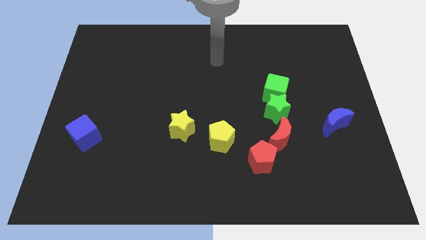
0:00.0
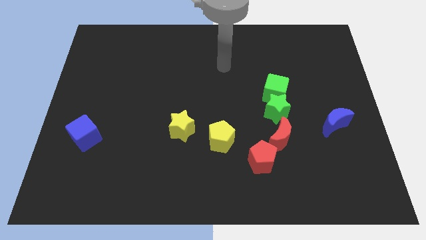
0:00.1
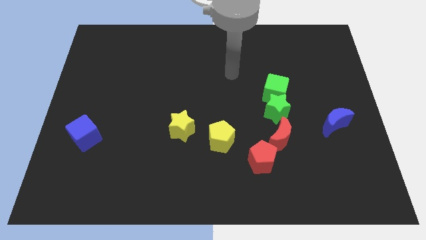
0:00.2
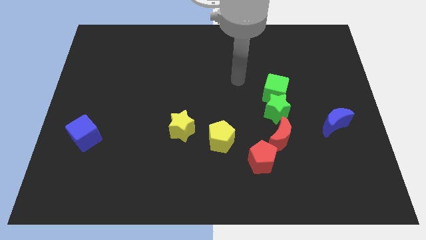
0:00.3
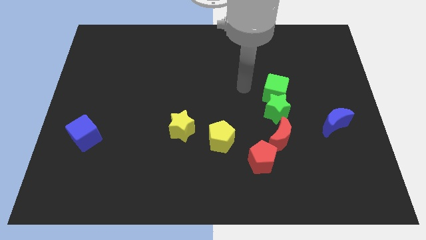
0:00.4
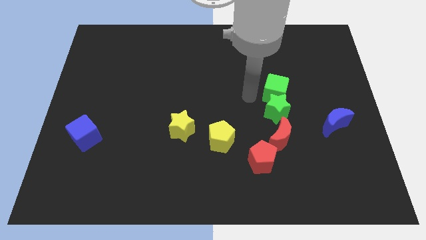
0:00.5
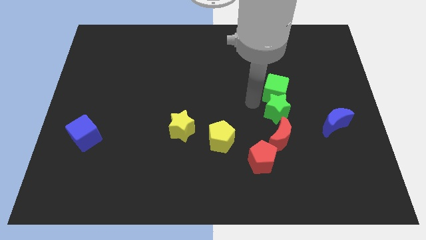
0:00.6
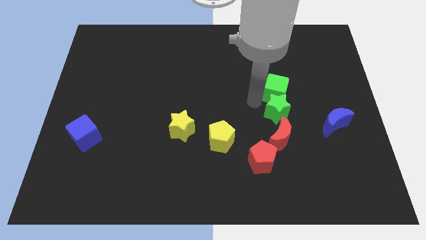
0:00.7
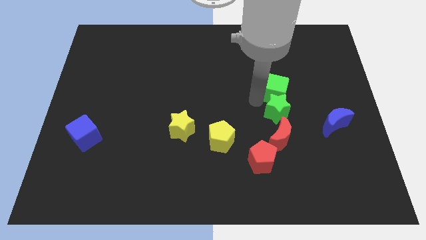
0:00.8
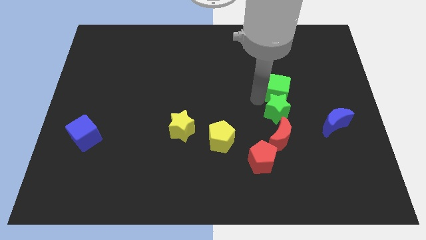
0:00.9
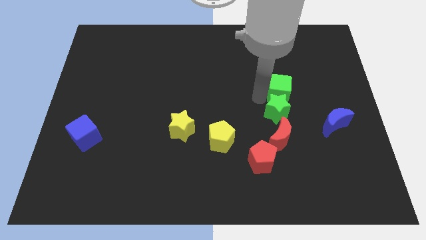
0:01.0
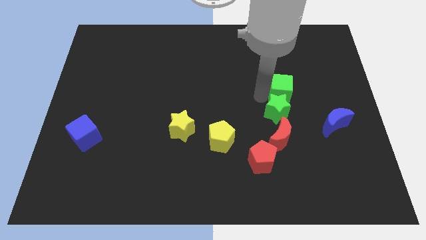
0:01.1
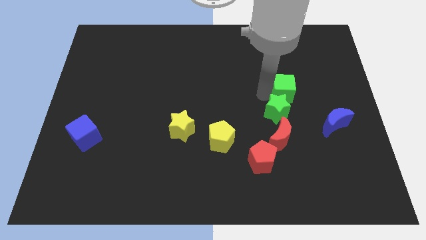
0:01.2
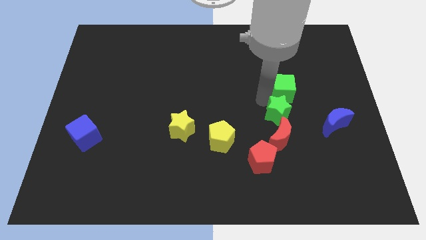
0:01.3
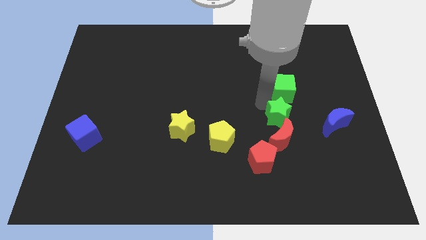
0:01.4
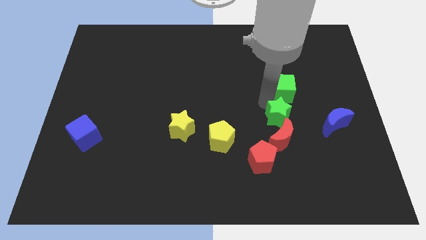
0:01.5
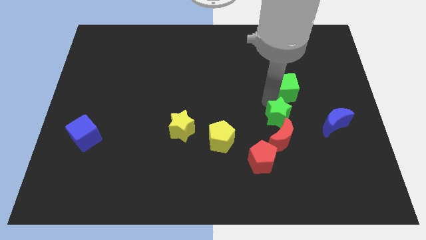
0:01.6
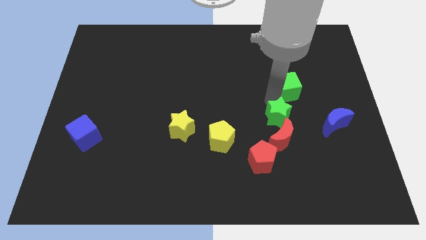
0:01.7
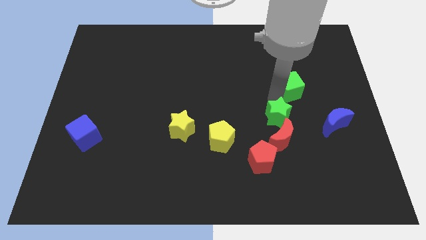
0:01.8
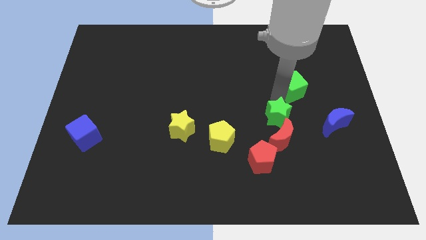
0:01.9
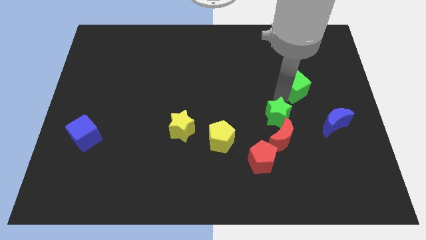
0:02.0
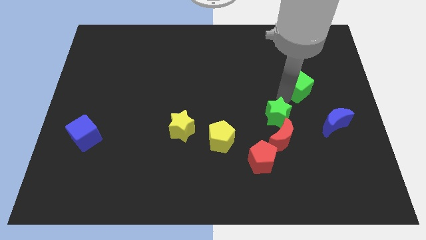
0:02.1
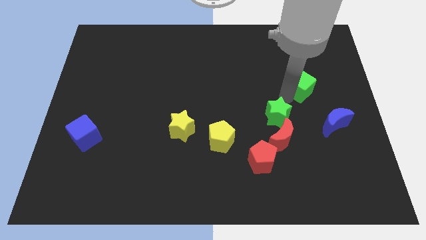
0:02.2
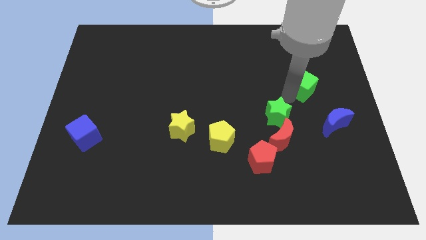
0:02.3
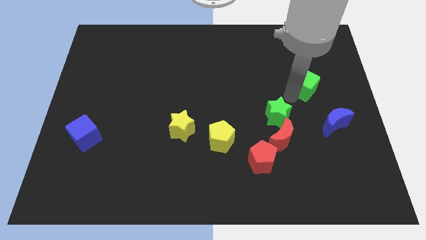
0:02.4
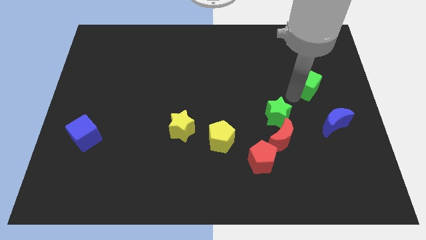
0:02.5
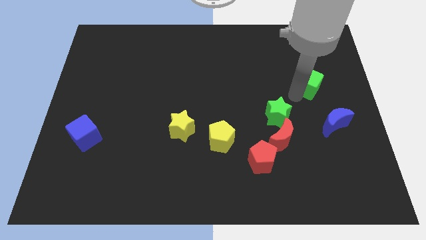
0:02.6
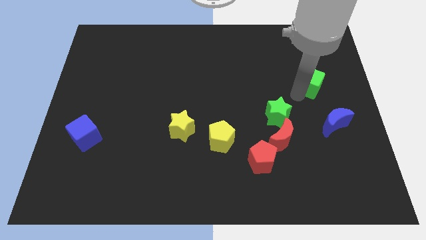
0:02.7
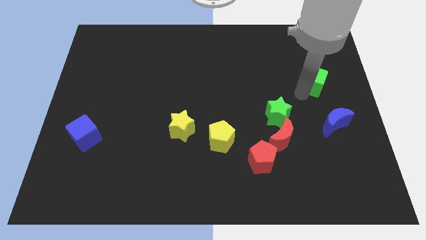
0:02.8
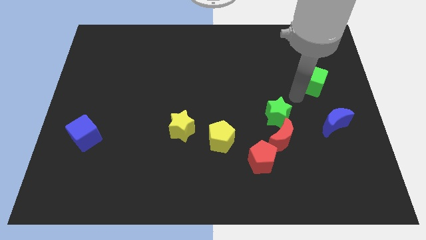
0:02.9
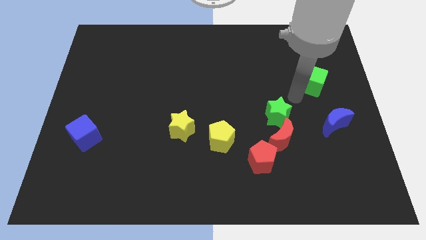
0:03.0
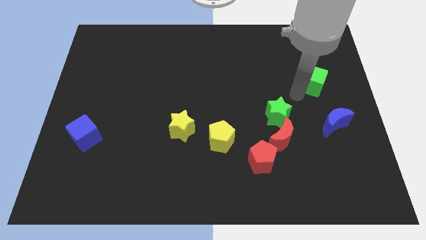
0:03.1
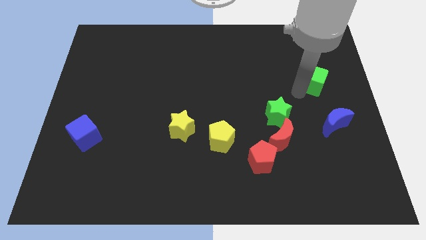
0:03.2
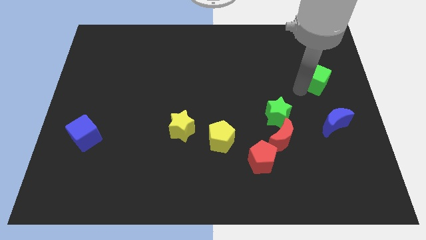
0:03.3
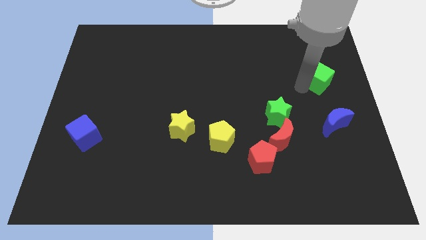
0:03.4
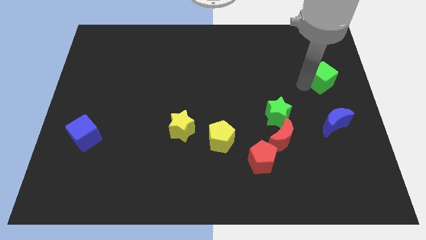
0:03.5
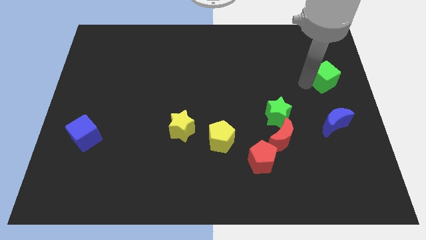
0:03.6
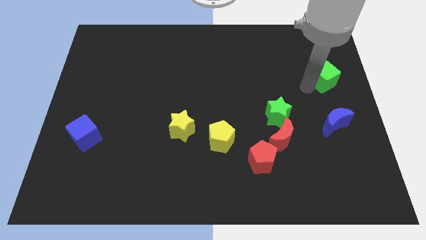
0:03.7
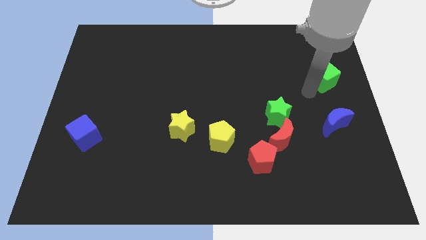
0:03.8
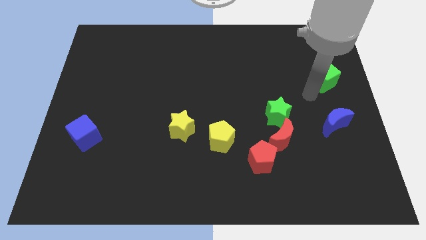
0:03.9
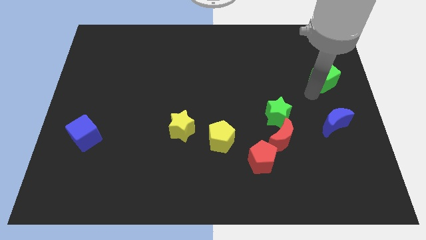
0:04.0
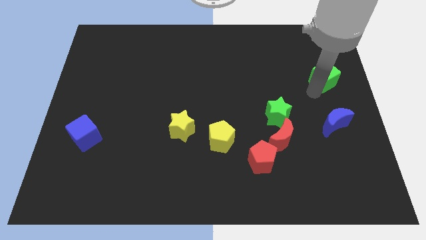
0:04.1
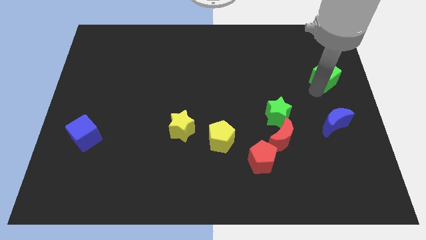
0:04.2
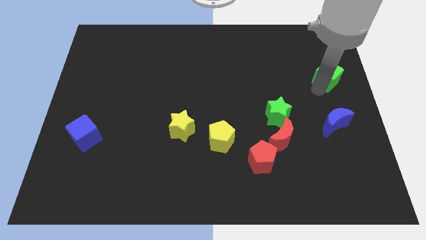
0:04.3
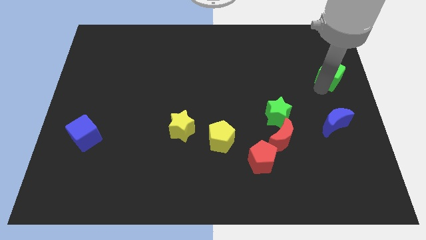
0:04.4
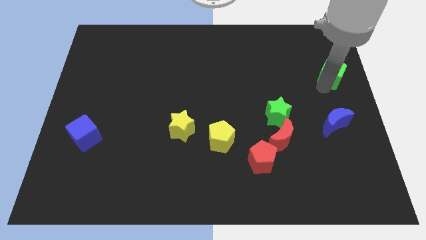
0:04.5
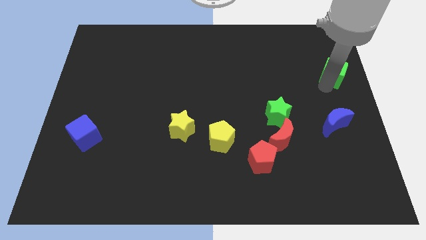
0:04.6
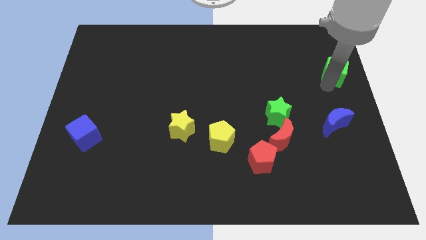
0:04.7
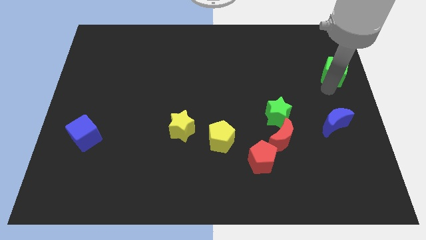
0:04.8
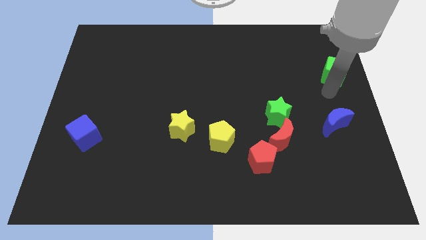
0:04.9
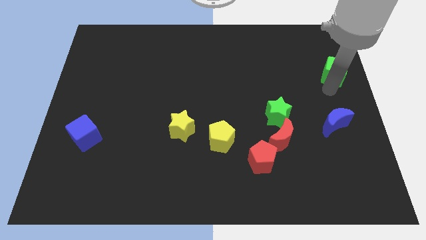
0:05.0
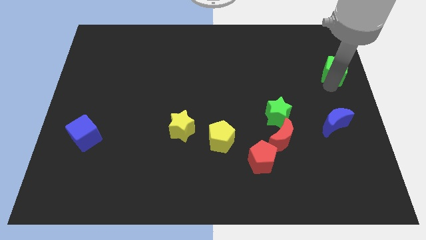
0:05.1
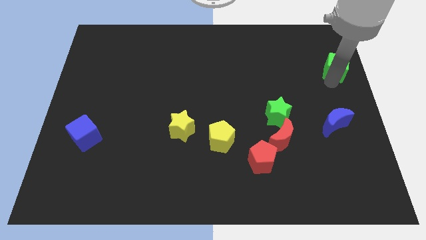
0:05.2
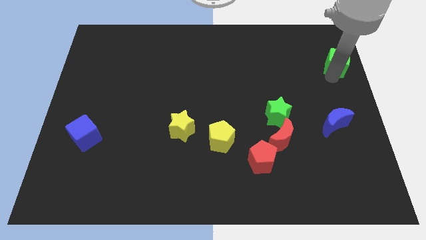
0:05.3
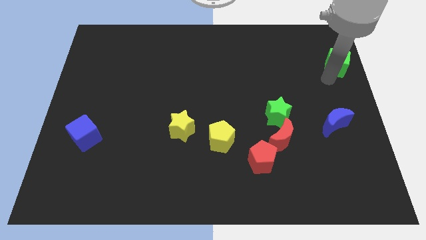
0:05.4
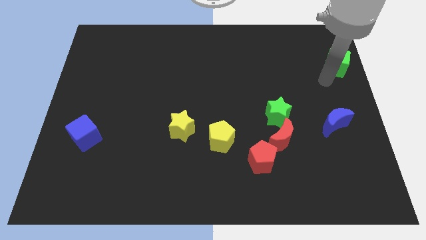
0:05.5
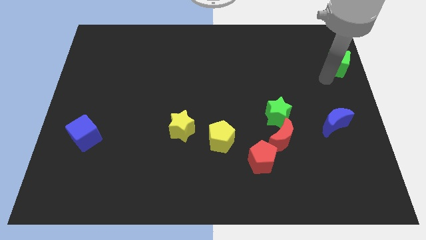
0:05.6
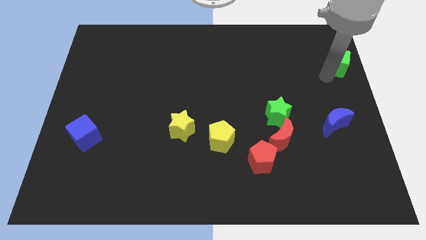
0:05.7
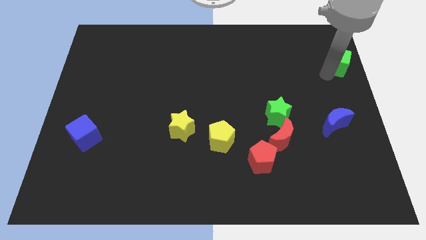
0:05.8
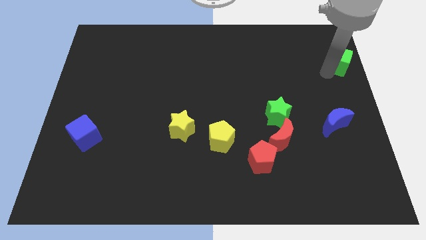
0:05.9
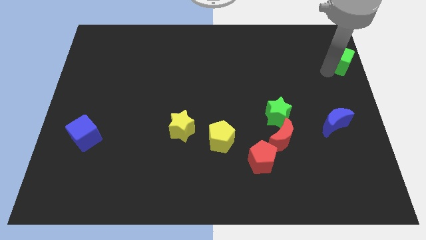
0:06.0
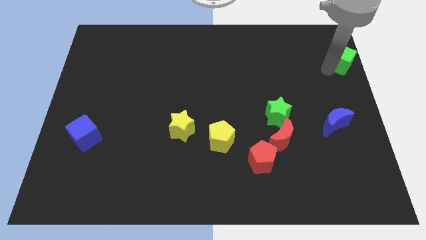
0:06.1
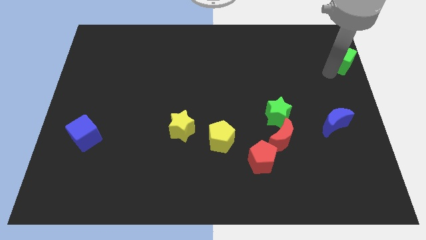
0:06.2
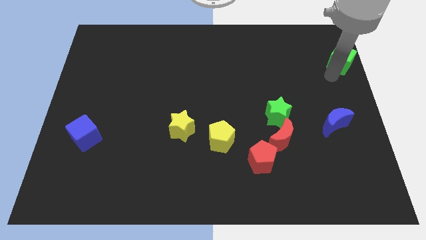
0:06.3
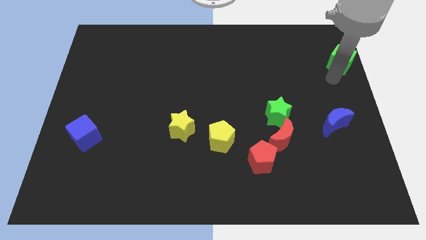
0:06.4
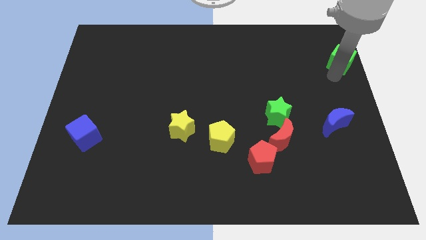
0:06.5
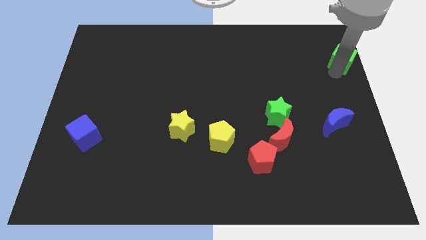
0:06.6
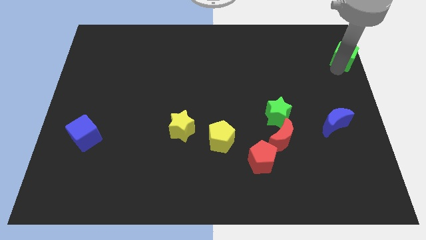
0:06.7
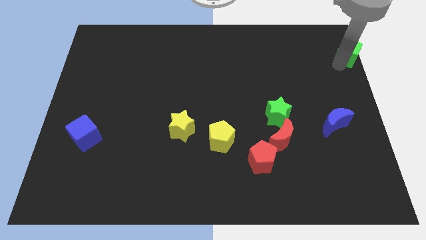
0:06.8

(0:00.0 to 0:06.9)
slide the green cube to the top right corner
